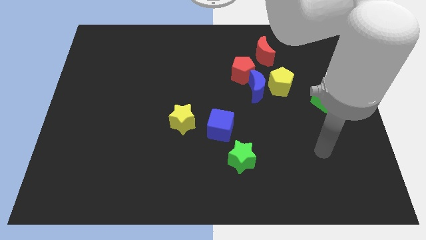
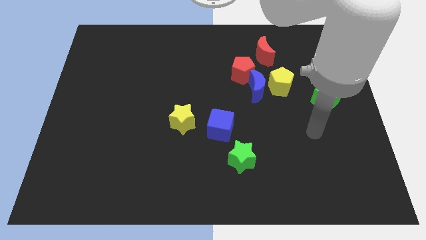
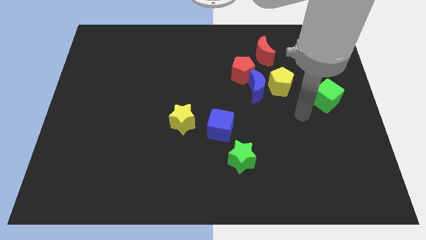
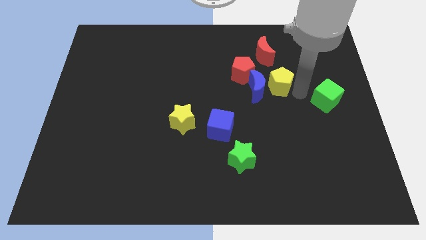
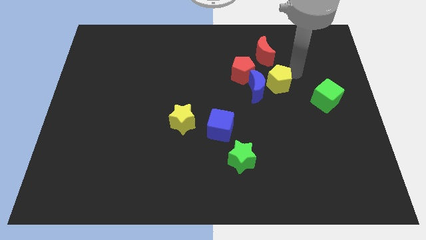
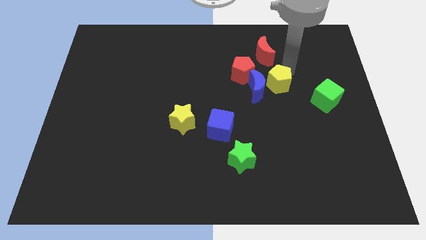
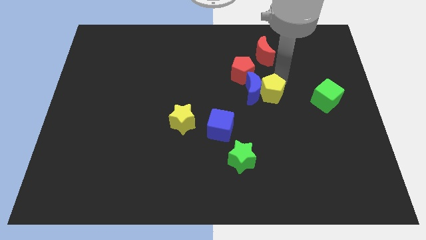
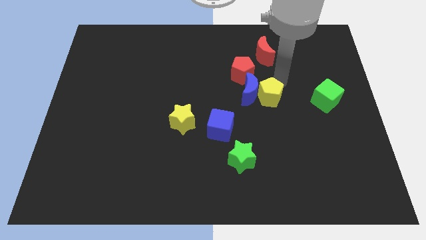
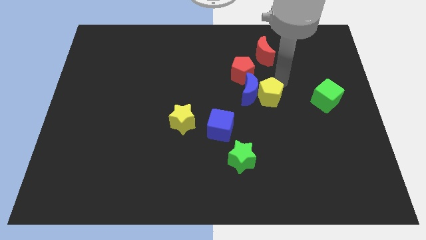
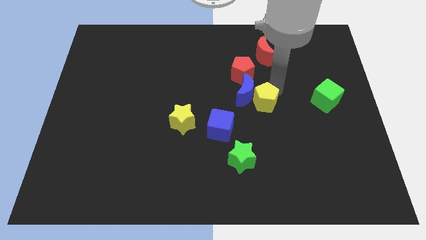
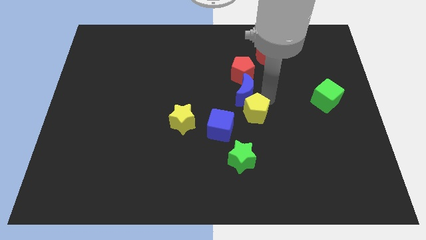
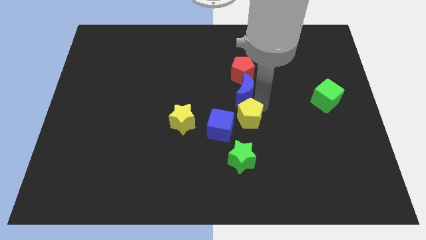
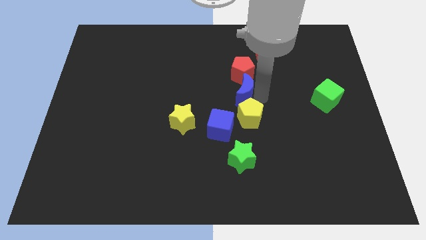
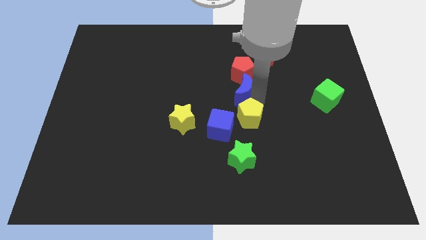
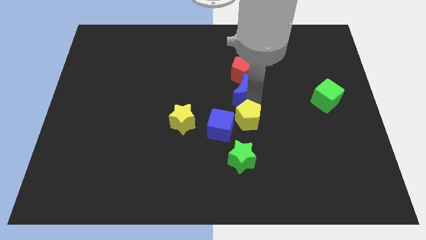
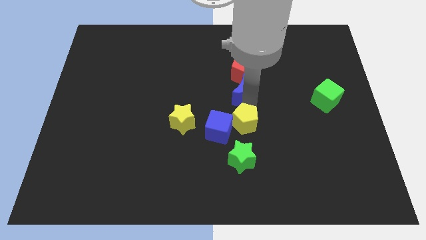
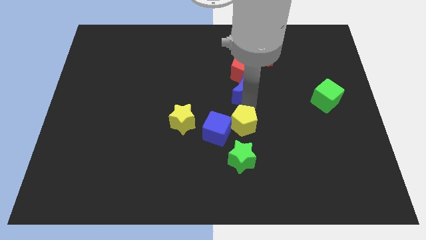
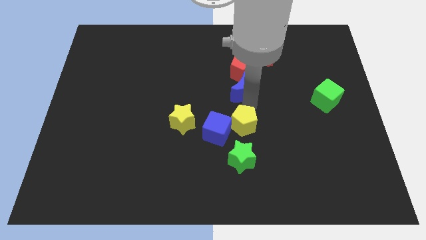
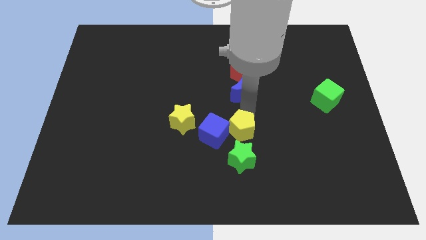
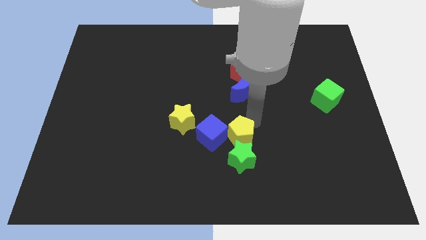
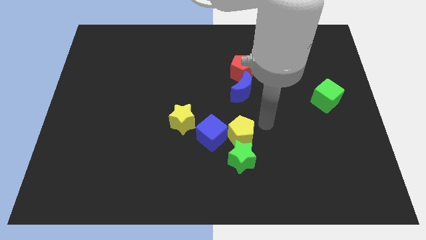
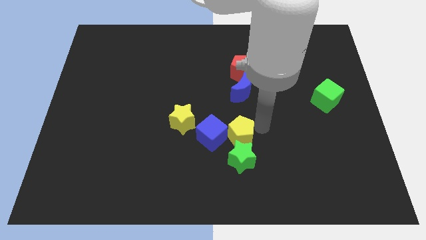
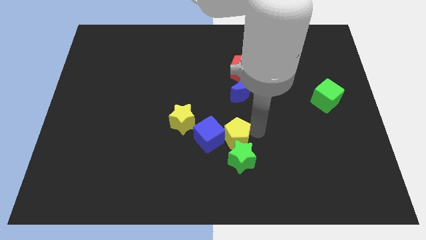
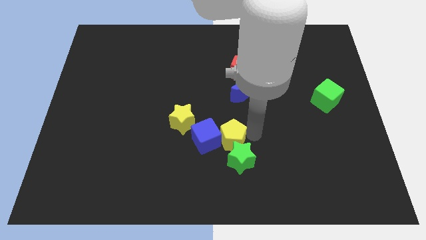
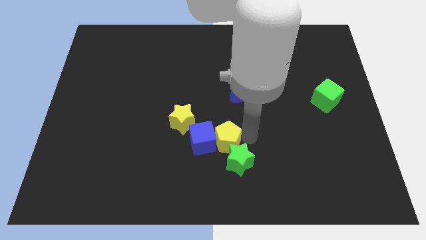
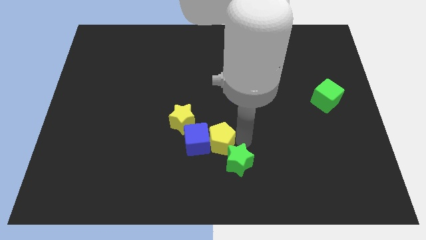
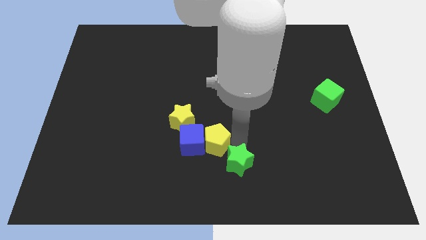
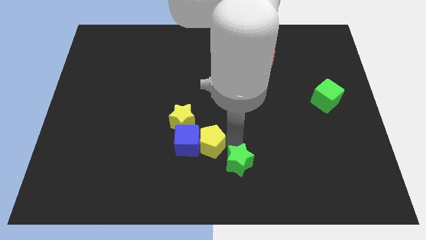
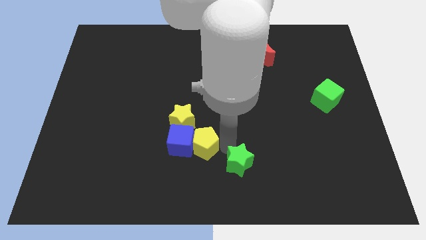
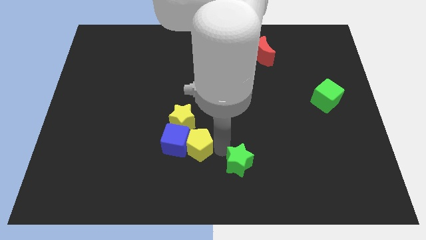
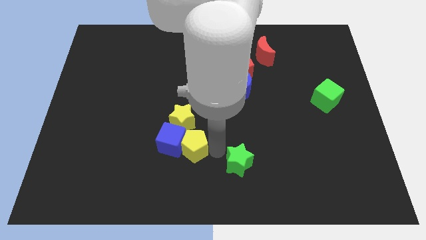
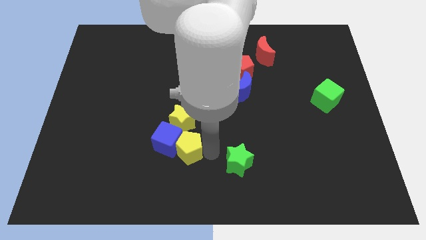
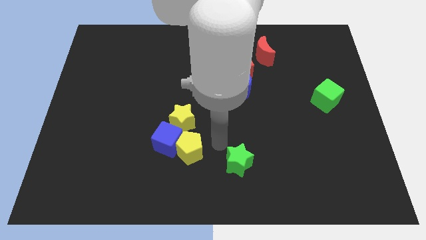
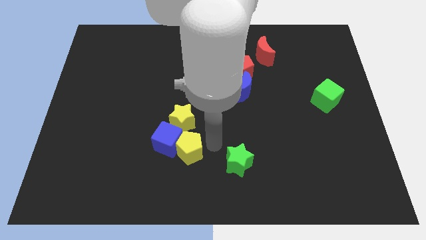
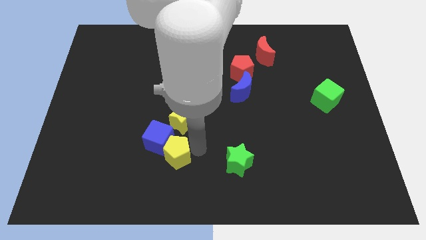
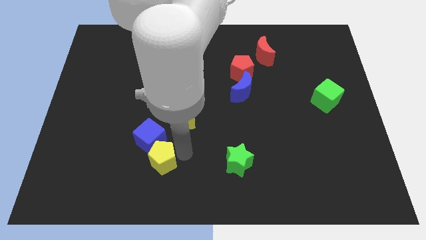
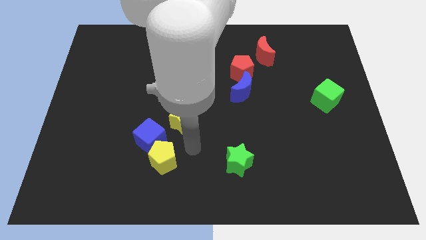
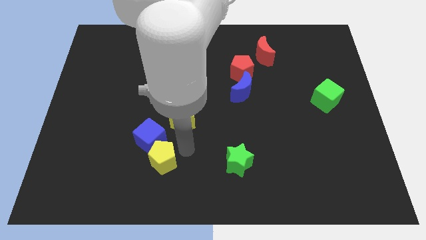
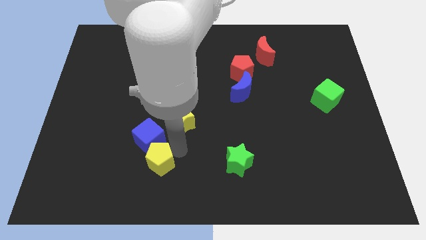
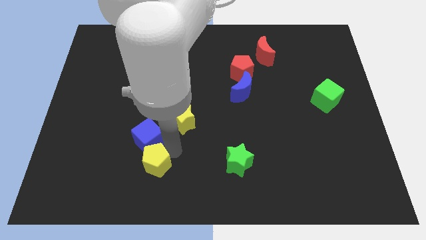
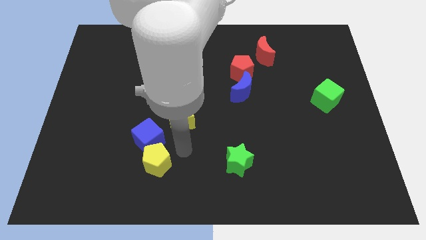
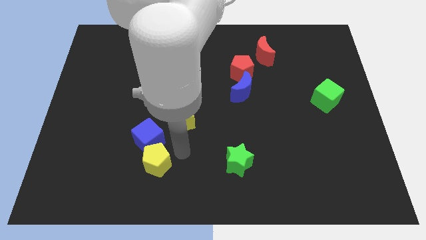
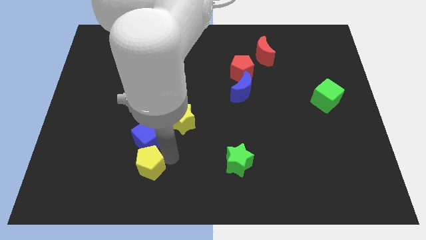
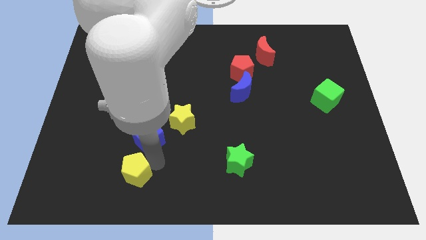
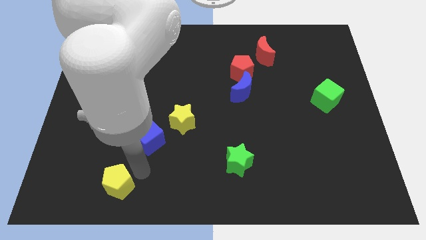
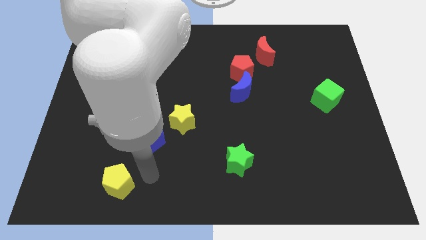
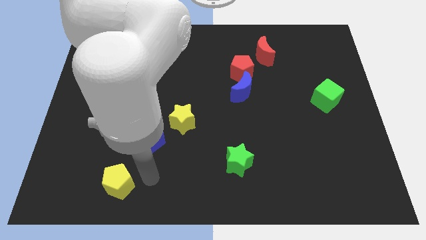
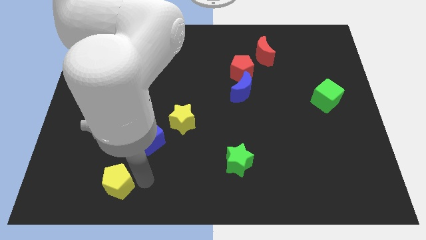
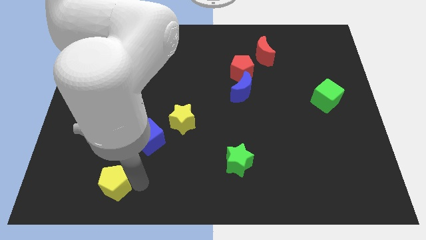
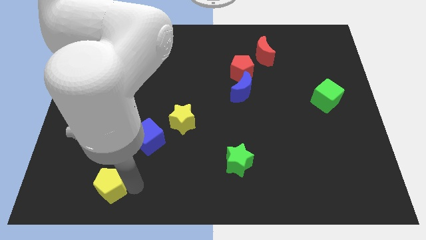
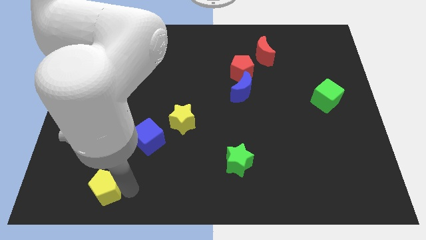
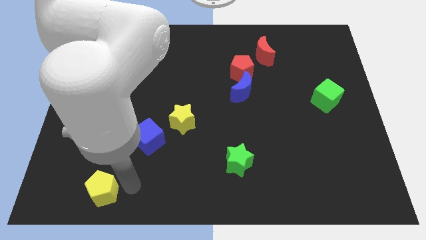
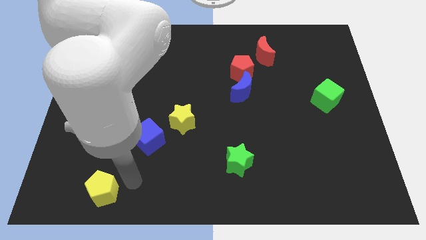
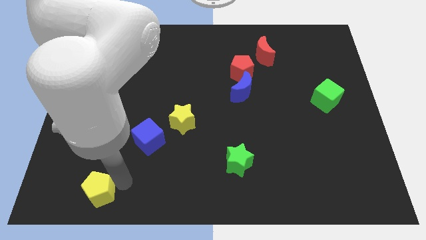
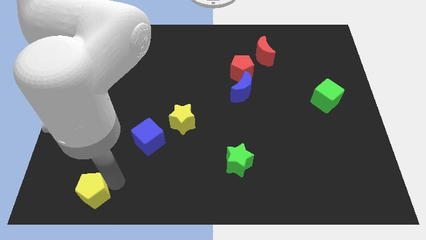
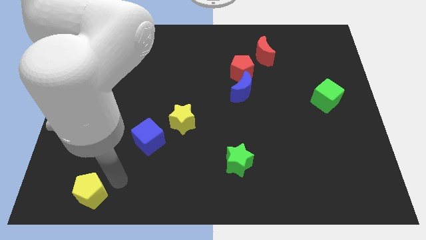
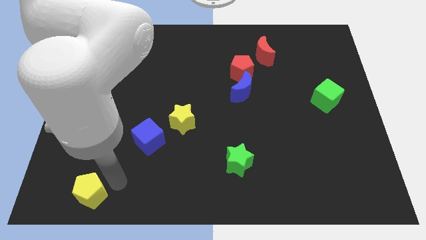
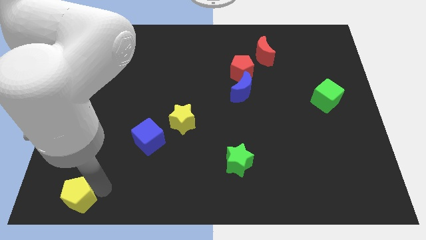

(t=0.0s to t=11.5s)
slide the yellow pentagon to the bottom left corner

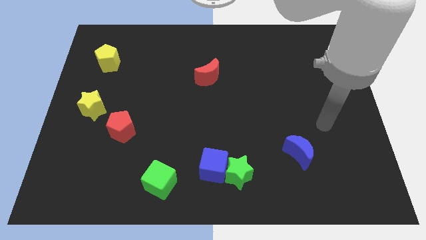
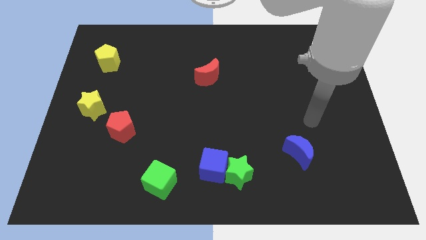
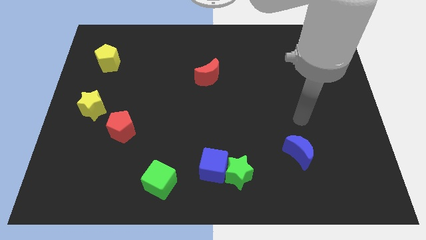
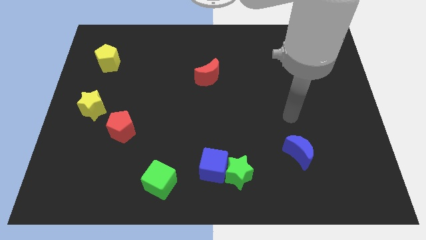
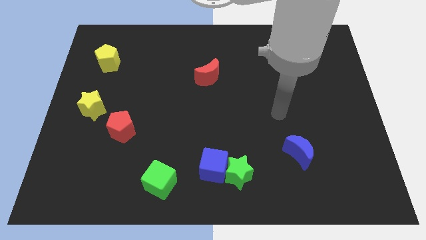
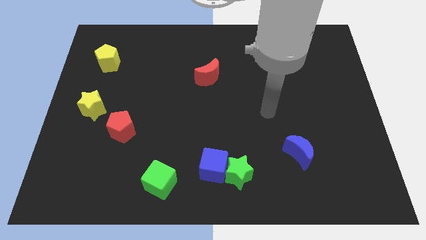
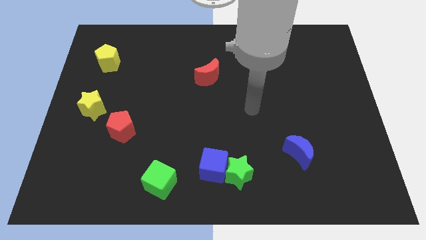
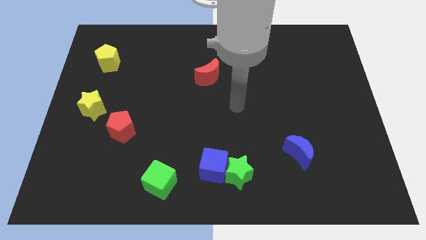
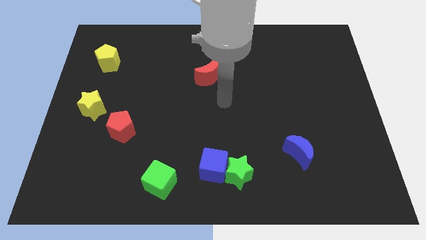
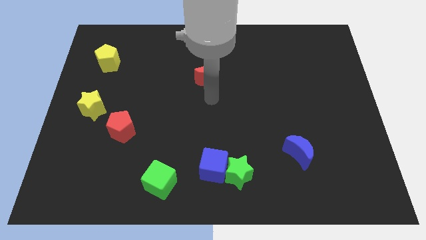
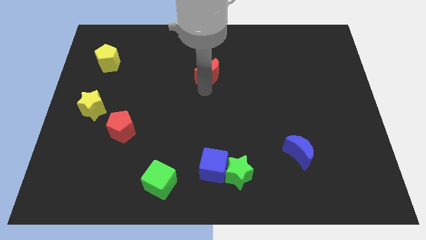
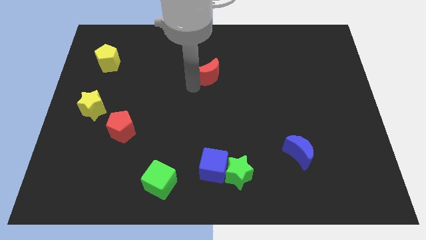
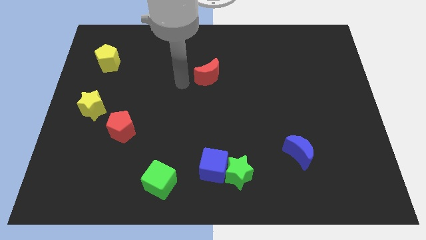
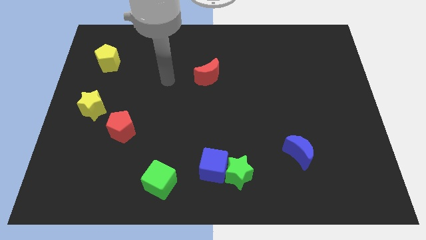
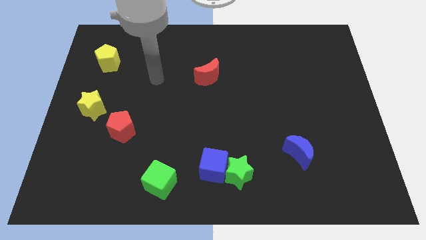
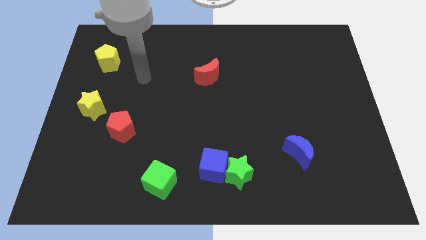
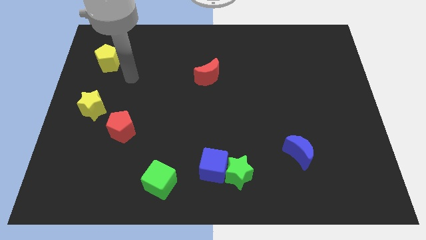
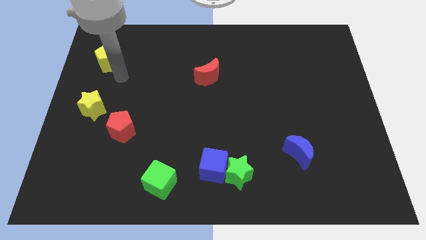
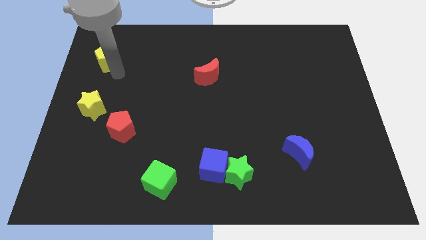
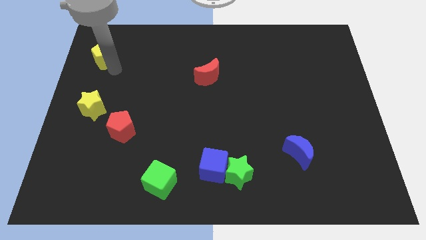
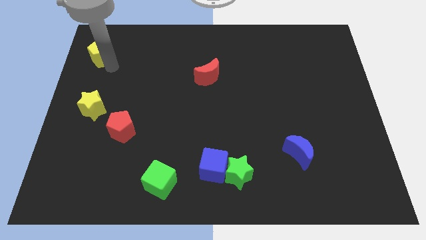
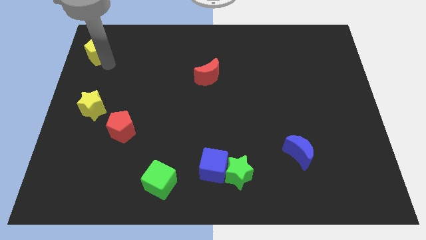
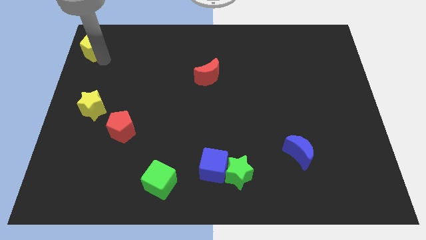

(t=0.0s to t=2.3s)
put the yellow pentagon to the top left corner
